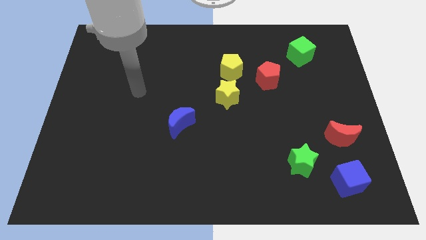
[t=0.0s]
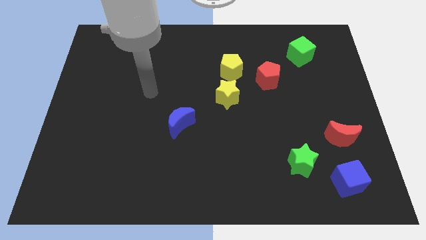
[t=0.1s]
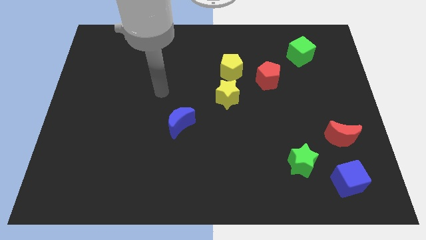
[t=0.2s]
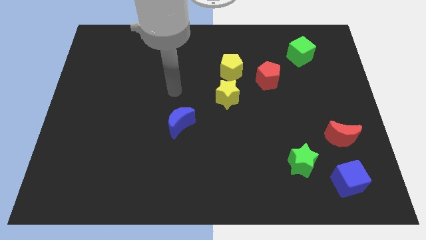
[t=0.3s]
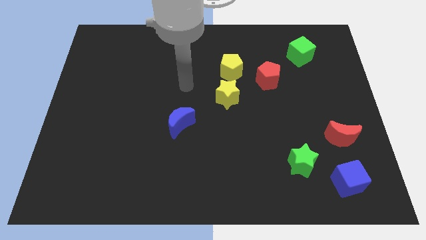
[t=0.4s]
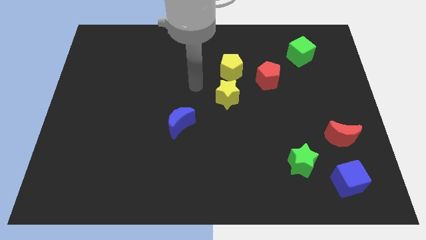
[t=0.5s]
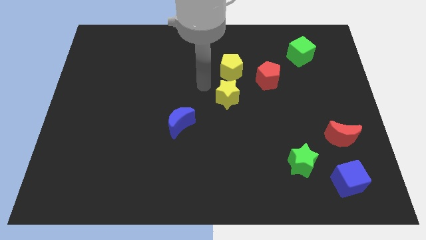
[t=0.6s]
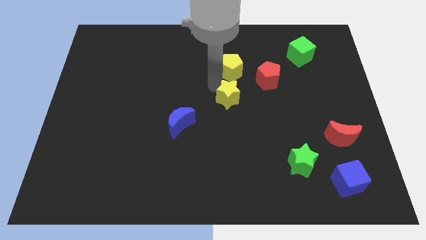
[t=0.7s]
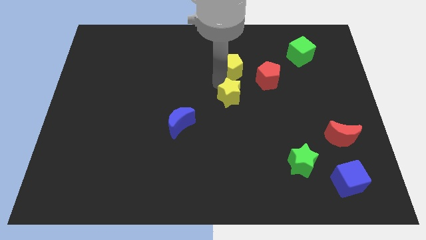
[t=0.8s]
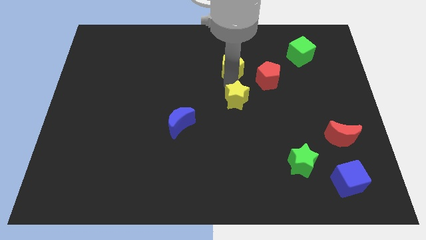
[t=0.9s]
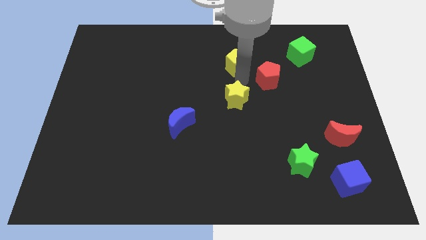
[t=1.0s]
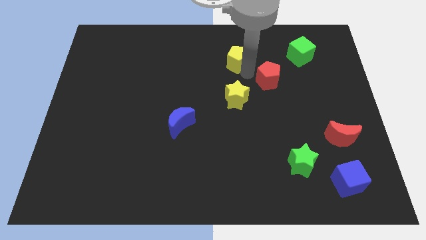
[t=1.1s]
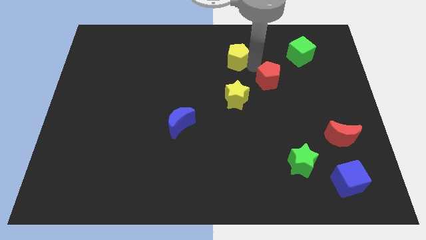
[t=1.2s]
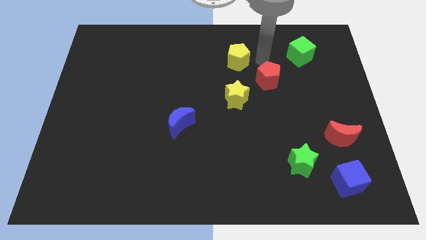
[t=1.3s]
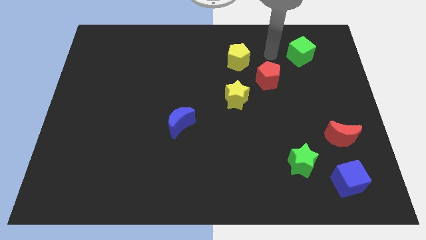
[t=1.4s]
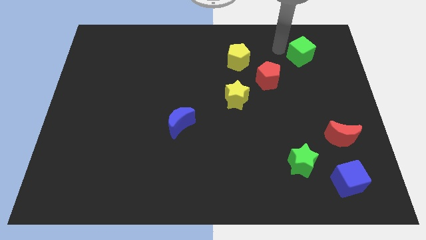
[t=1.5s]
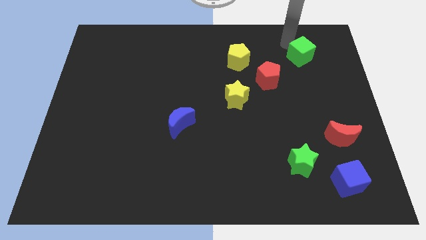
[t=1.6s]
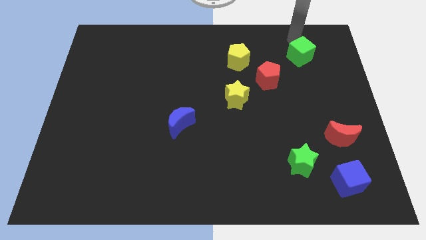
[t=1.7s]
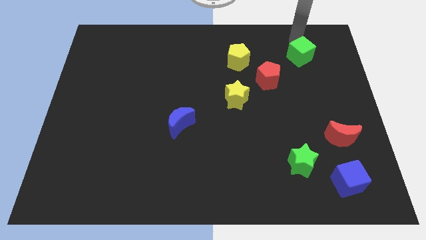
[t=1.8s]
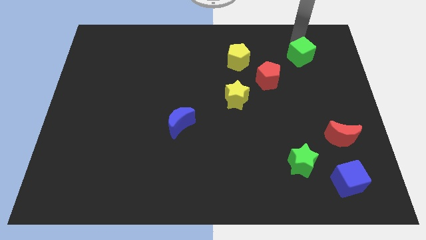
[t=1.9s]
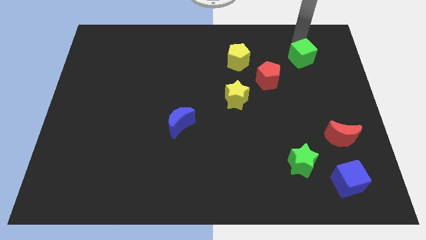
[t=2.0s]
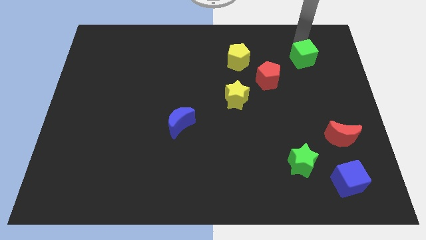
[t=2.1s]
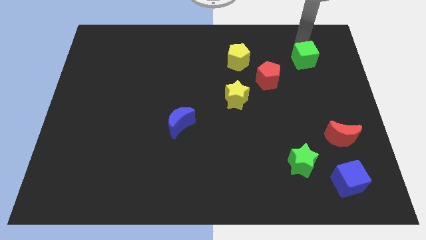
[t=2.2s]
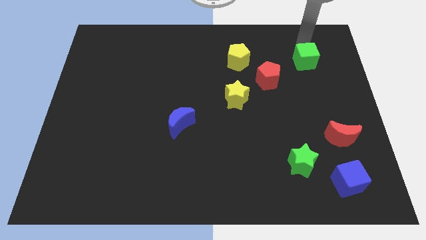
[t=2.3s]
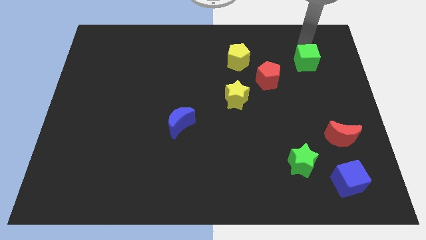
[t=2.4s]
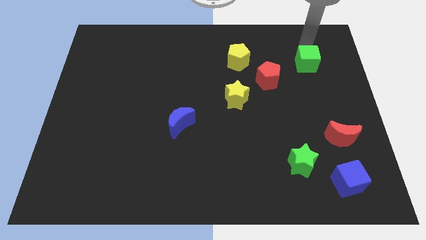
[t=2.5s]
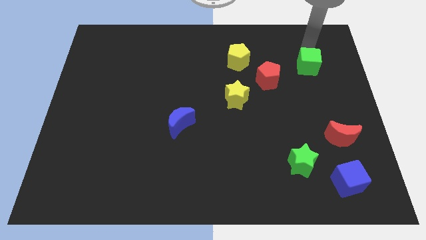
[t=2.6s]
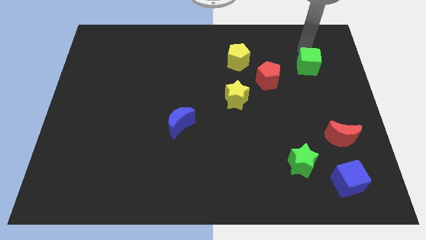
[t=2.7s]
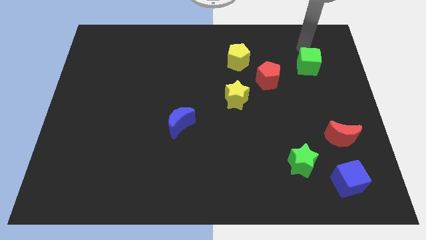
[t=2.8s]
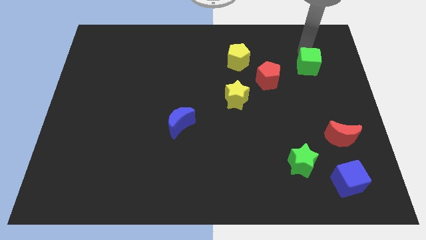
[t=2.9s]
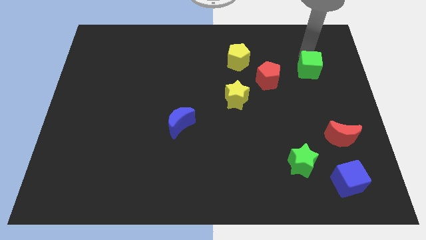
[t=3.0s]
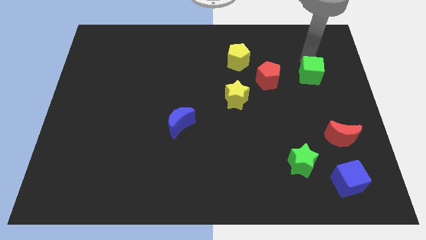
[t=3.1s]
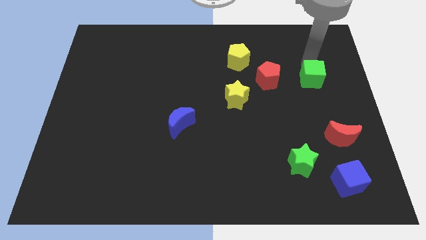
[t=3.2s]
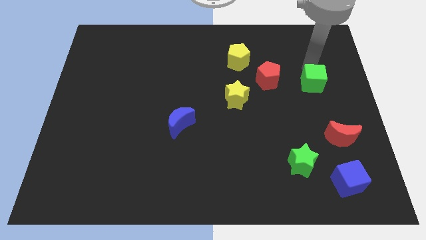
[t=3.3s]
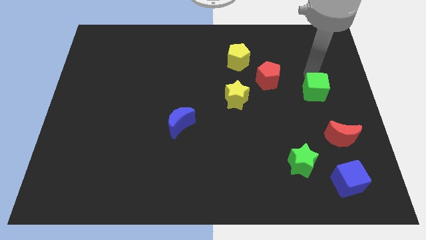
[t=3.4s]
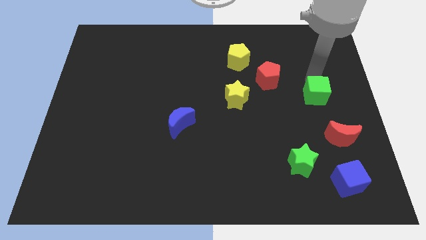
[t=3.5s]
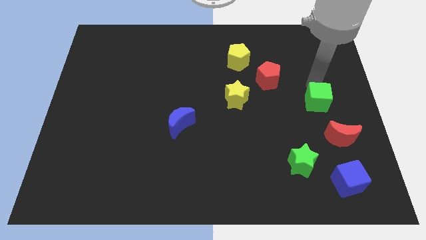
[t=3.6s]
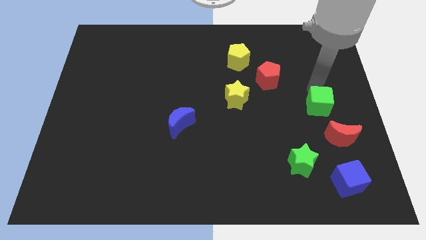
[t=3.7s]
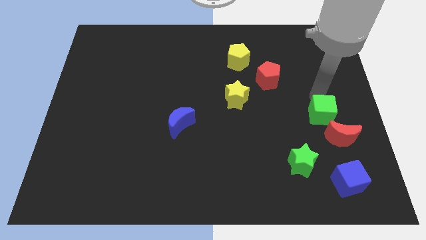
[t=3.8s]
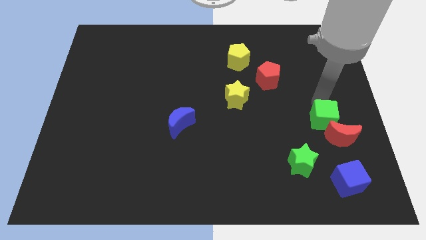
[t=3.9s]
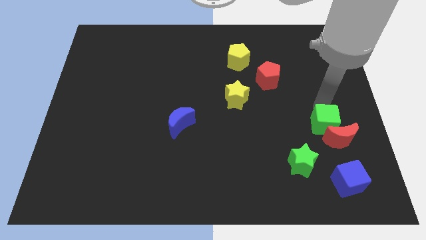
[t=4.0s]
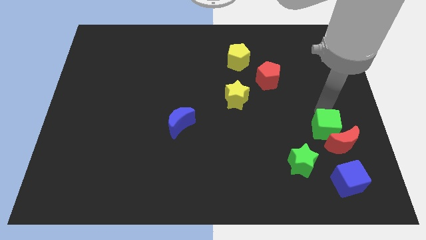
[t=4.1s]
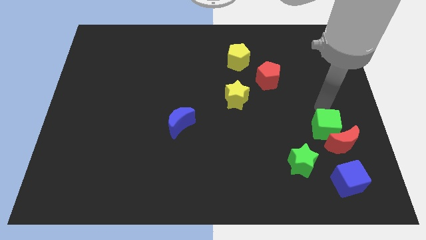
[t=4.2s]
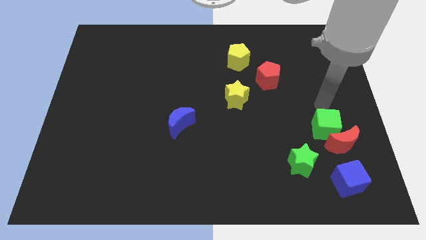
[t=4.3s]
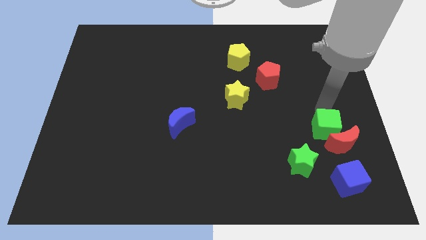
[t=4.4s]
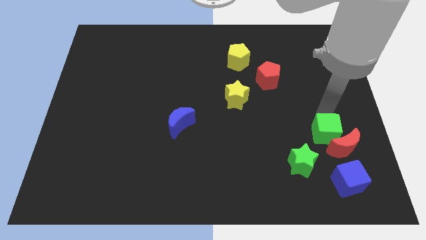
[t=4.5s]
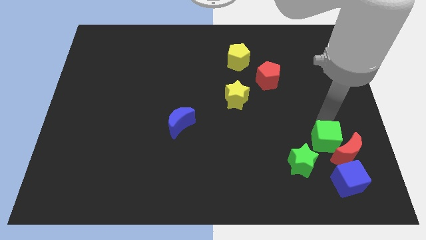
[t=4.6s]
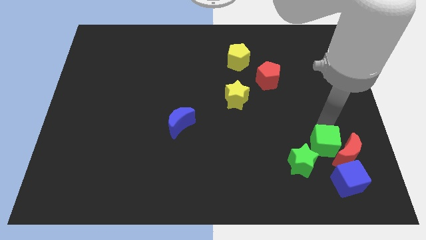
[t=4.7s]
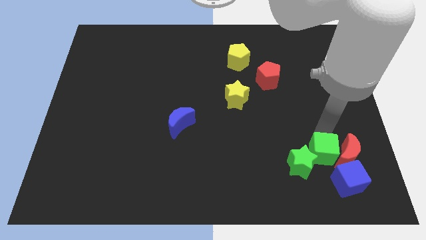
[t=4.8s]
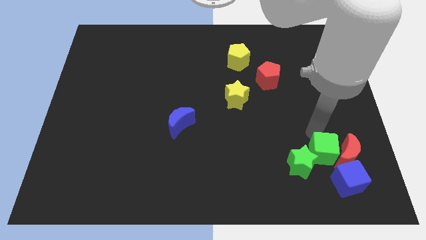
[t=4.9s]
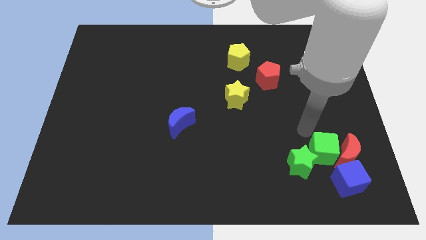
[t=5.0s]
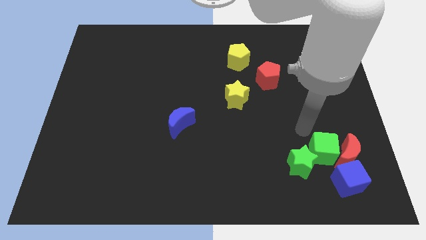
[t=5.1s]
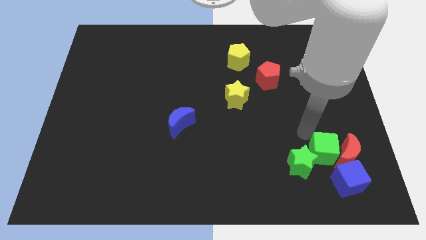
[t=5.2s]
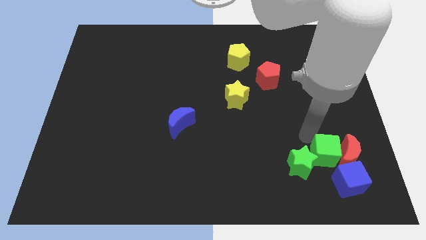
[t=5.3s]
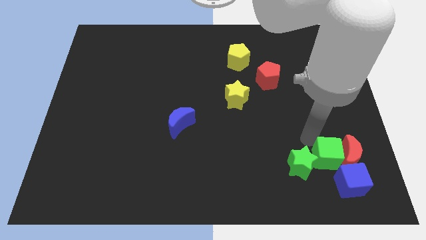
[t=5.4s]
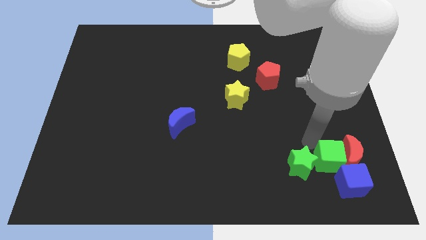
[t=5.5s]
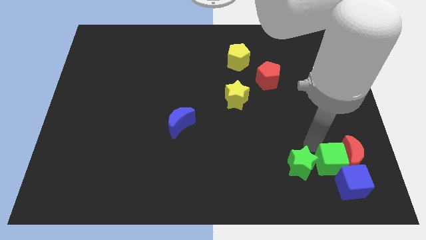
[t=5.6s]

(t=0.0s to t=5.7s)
slide the green cube close to the blue cube

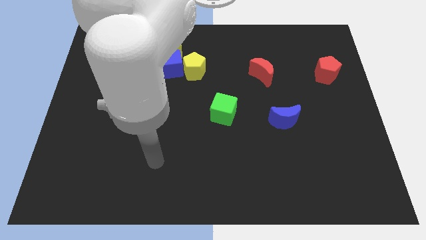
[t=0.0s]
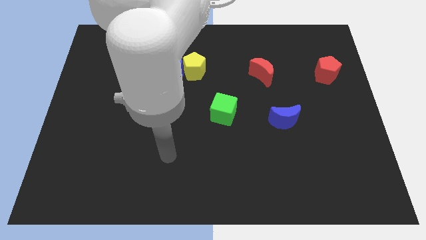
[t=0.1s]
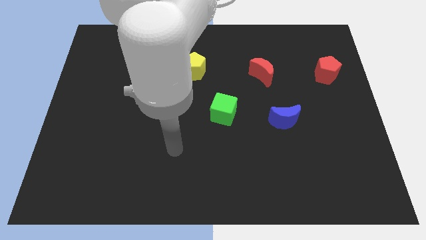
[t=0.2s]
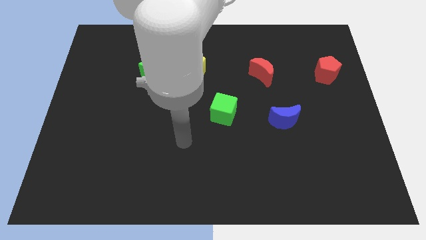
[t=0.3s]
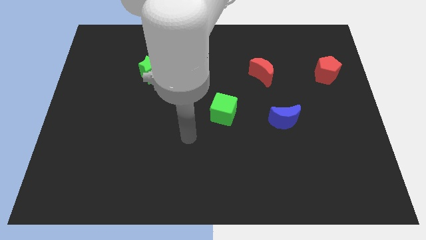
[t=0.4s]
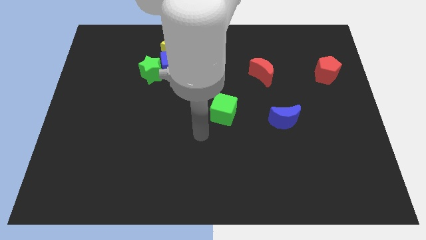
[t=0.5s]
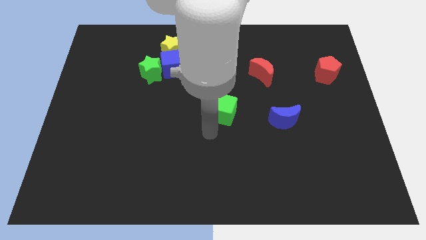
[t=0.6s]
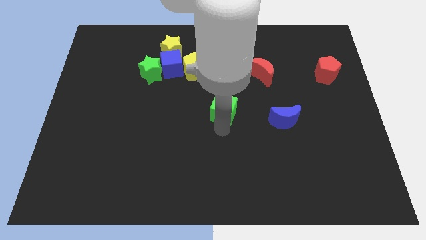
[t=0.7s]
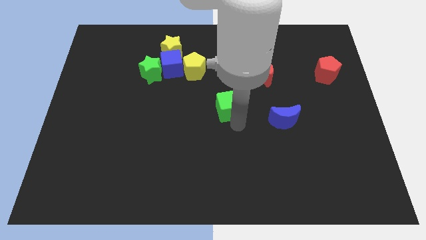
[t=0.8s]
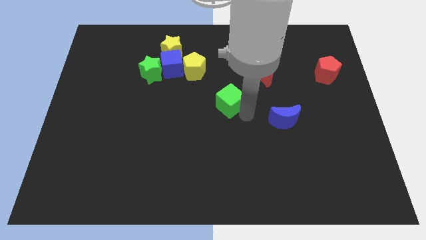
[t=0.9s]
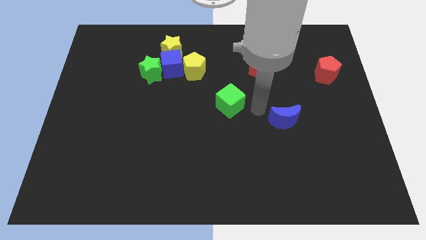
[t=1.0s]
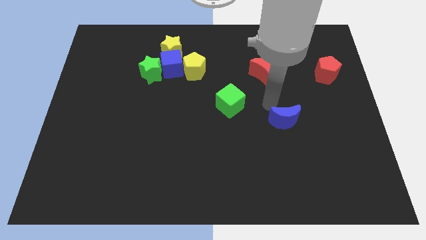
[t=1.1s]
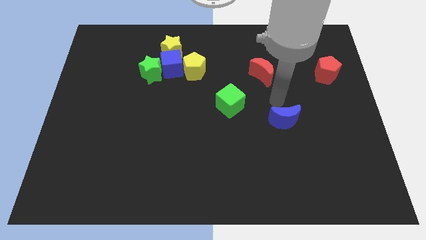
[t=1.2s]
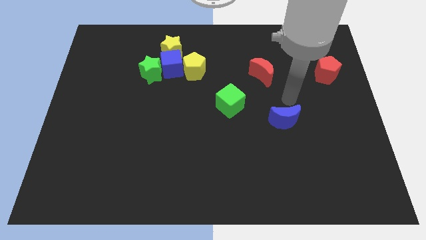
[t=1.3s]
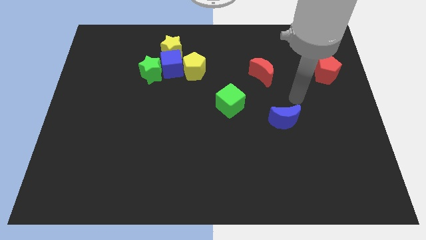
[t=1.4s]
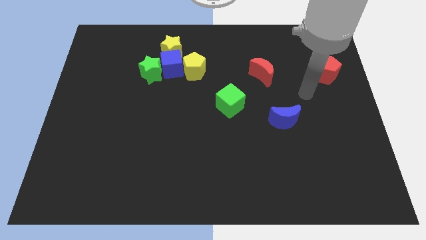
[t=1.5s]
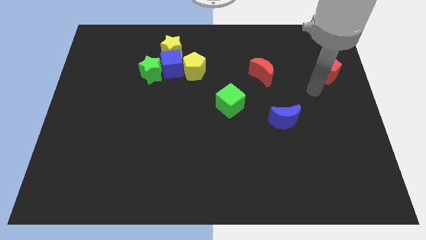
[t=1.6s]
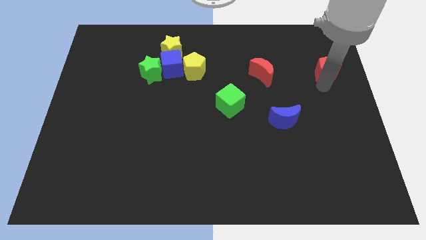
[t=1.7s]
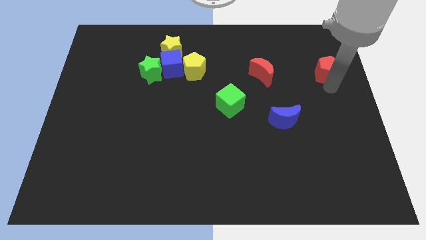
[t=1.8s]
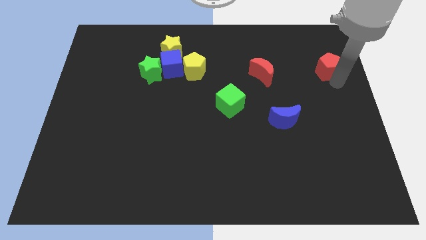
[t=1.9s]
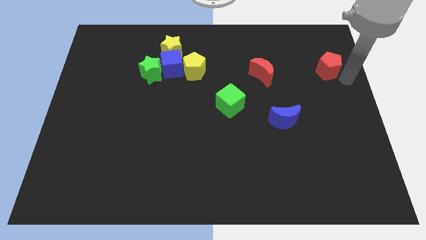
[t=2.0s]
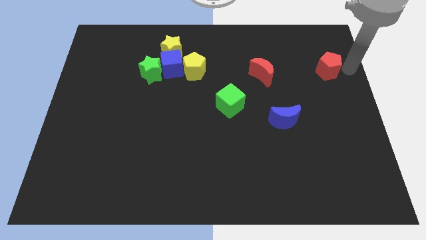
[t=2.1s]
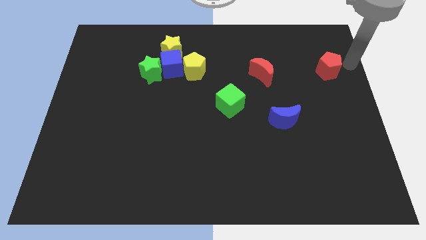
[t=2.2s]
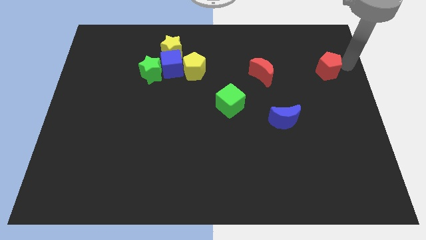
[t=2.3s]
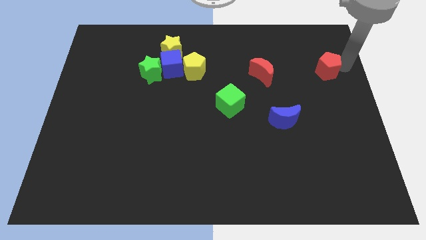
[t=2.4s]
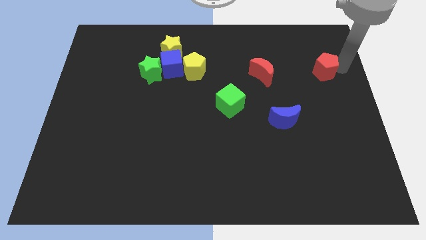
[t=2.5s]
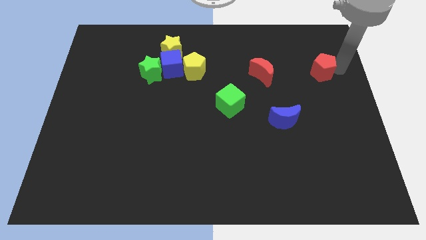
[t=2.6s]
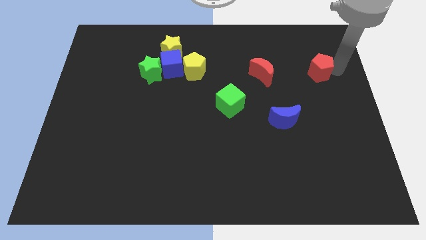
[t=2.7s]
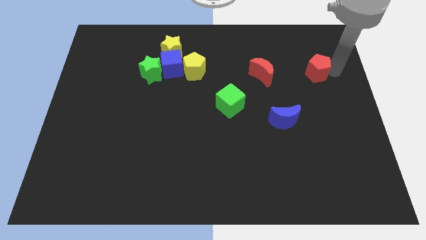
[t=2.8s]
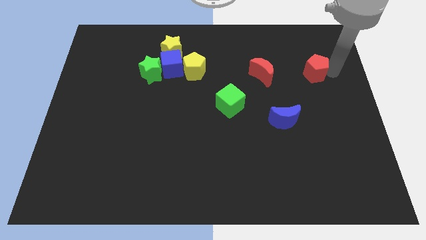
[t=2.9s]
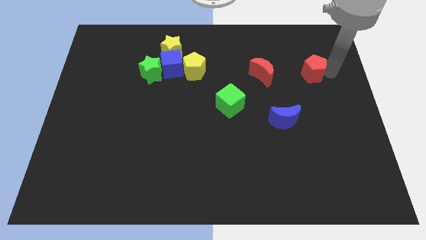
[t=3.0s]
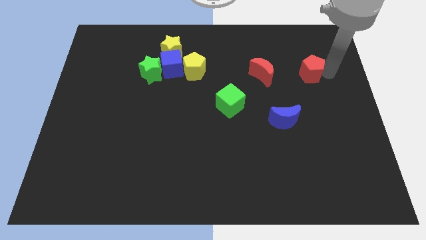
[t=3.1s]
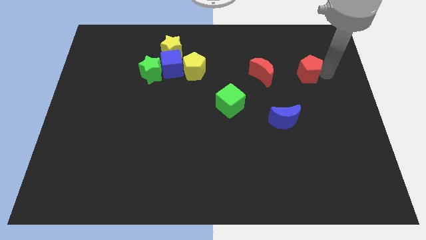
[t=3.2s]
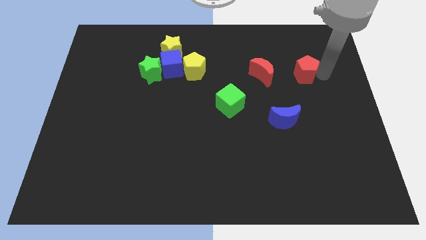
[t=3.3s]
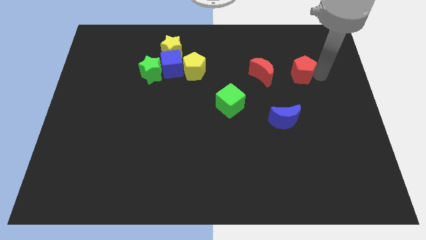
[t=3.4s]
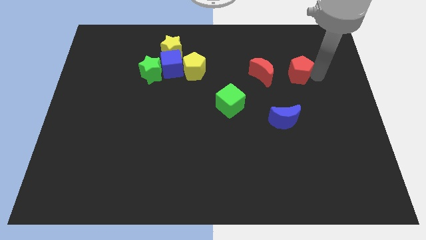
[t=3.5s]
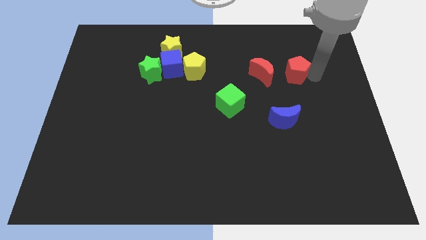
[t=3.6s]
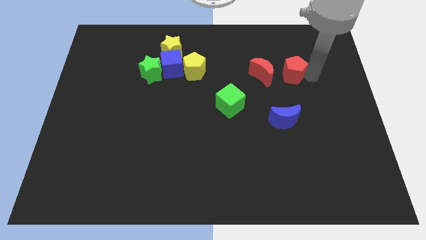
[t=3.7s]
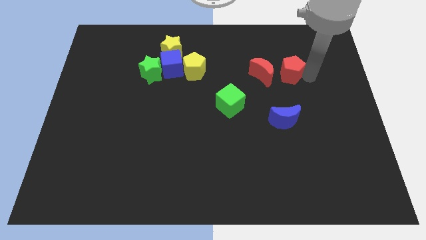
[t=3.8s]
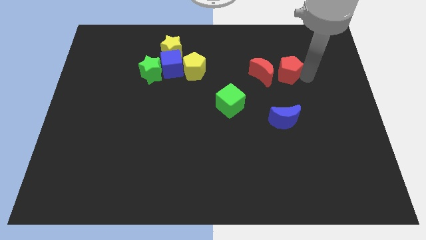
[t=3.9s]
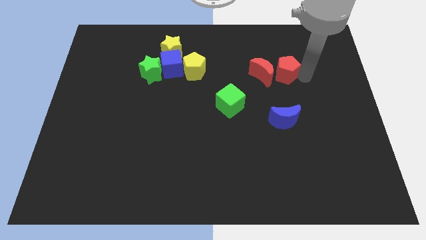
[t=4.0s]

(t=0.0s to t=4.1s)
put the red pentagon to the red moon
